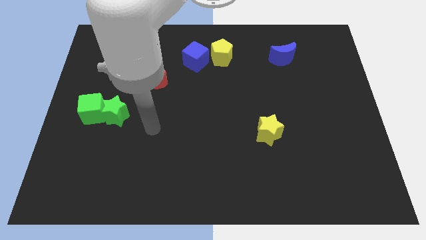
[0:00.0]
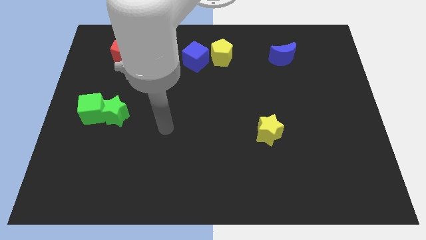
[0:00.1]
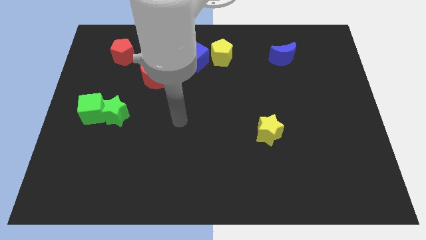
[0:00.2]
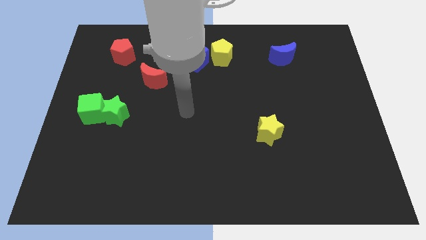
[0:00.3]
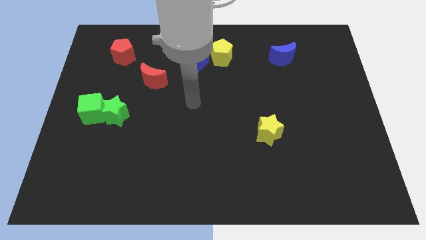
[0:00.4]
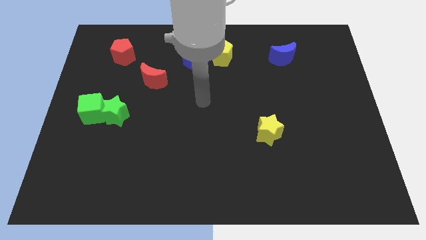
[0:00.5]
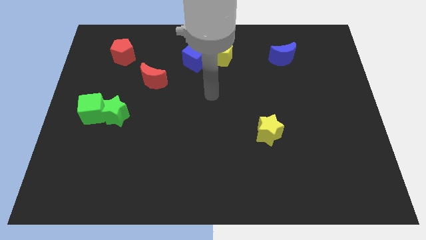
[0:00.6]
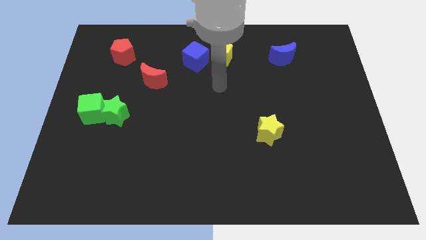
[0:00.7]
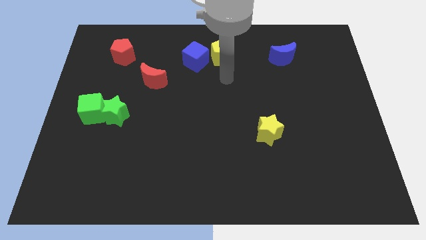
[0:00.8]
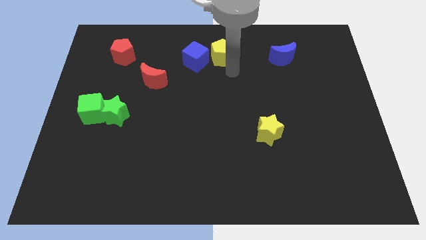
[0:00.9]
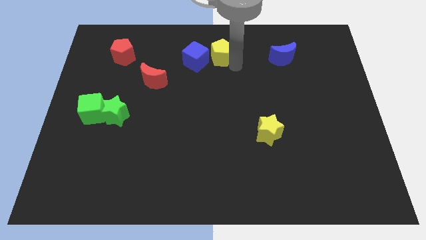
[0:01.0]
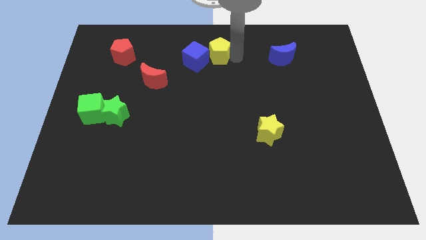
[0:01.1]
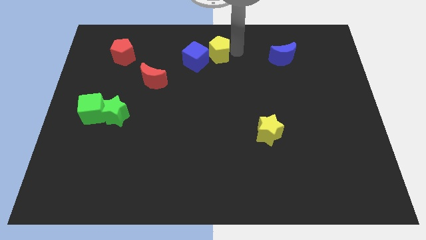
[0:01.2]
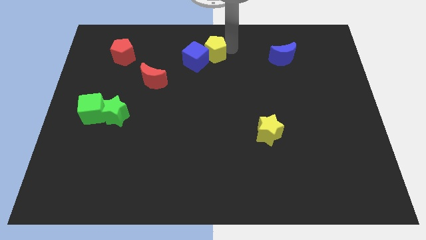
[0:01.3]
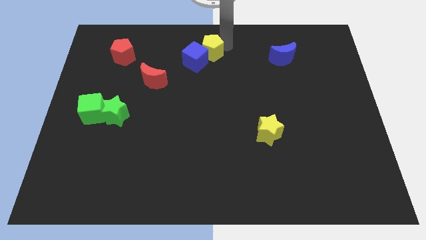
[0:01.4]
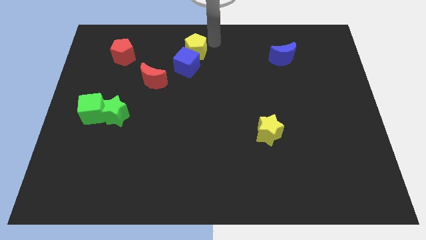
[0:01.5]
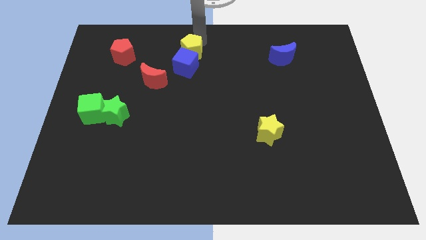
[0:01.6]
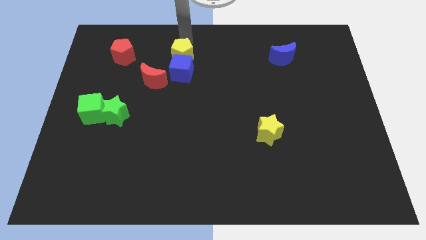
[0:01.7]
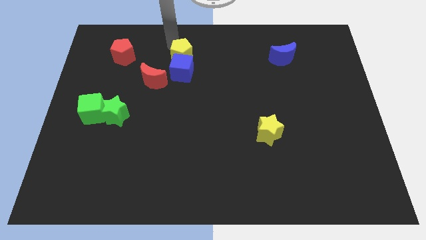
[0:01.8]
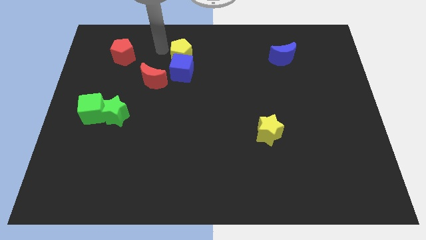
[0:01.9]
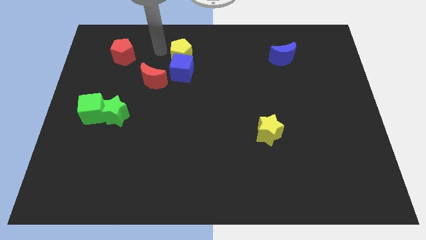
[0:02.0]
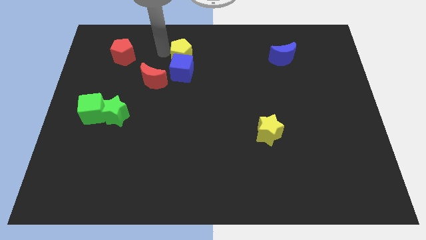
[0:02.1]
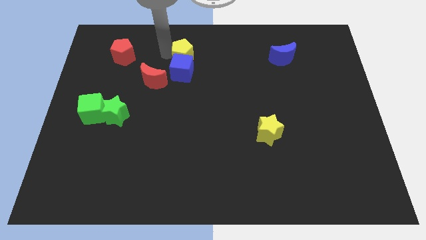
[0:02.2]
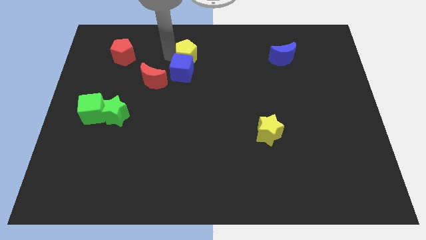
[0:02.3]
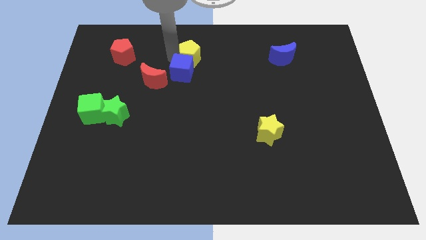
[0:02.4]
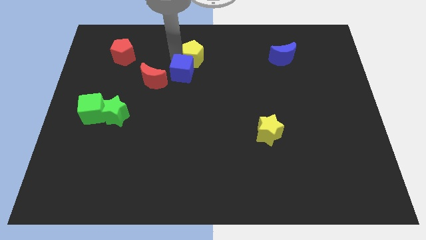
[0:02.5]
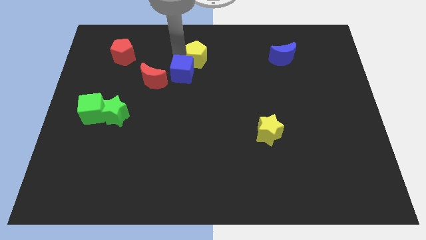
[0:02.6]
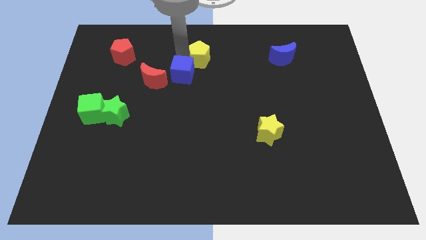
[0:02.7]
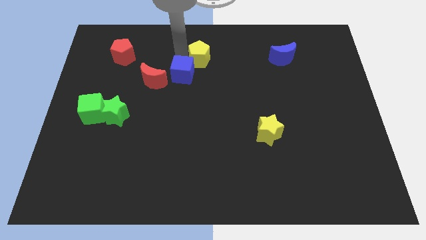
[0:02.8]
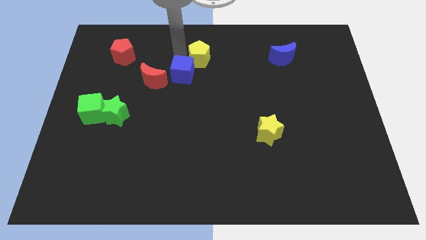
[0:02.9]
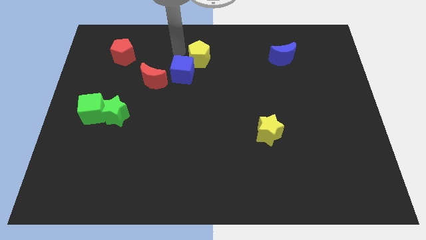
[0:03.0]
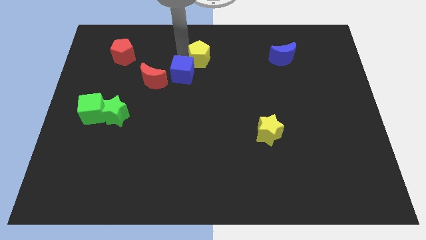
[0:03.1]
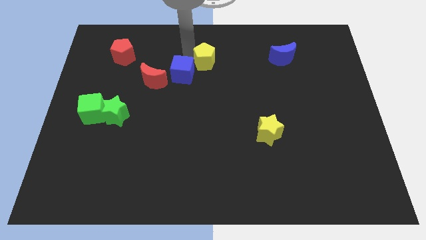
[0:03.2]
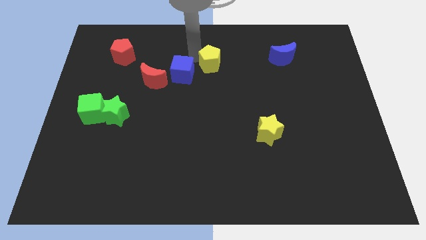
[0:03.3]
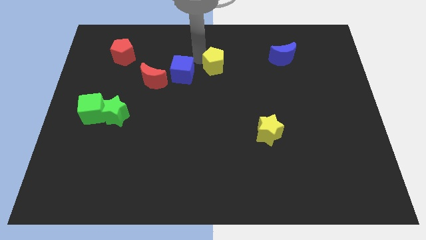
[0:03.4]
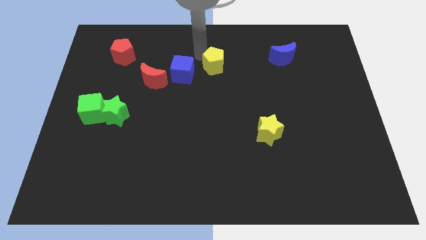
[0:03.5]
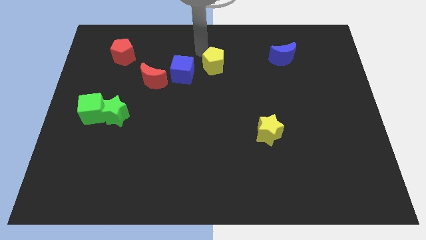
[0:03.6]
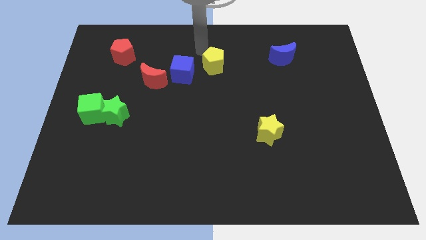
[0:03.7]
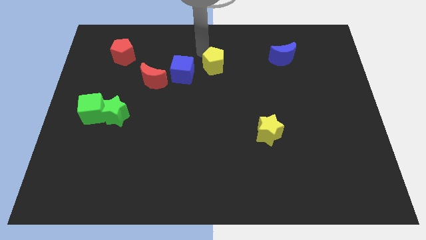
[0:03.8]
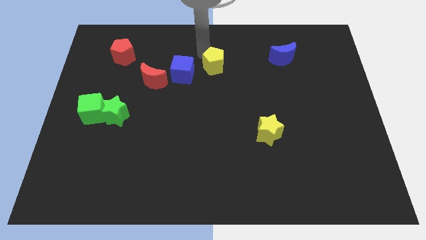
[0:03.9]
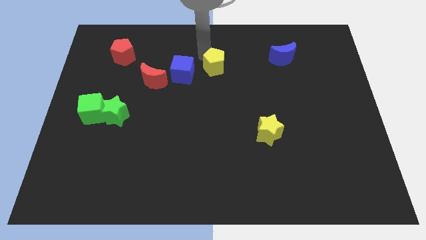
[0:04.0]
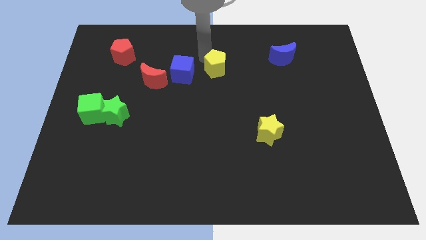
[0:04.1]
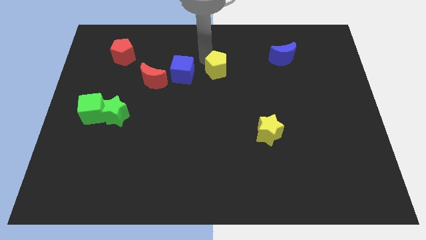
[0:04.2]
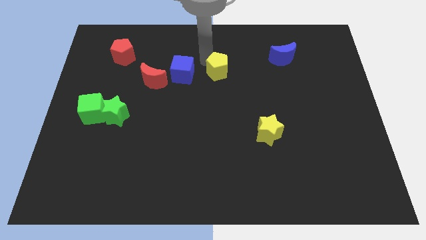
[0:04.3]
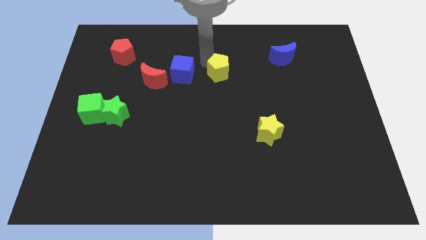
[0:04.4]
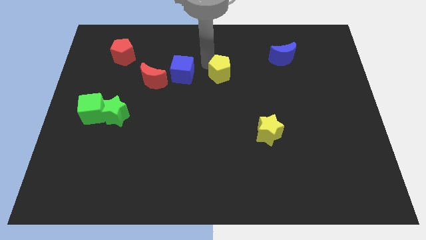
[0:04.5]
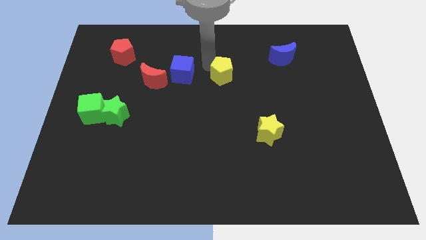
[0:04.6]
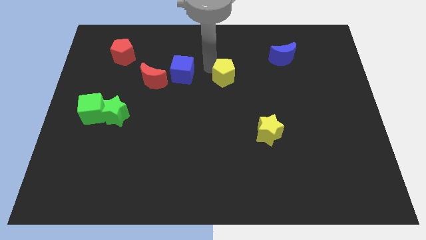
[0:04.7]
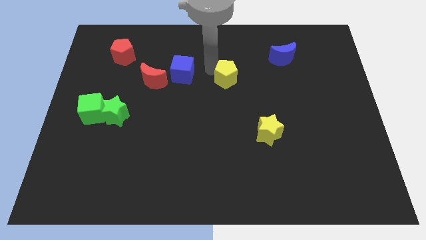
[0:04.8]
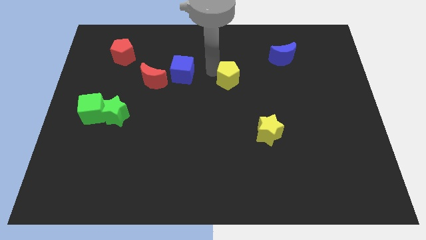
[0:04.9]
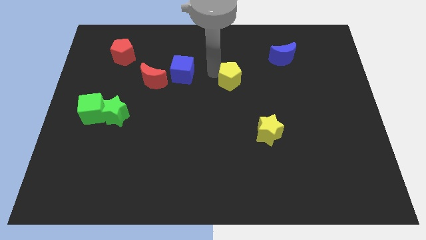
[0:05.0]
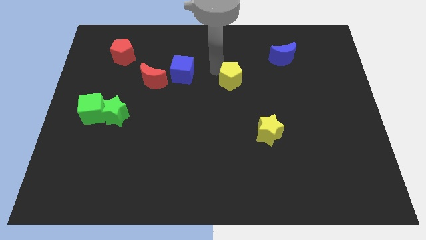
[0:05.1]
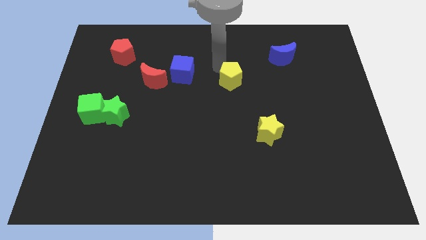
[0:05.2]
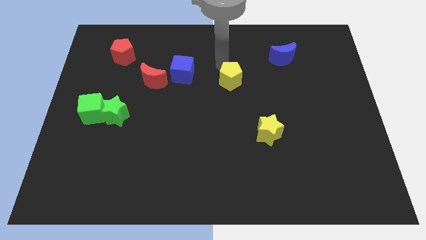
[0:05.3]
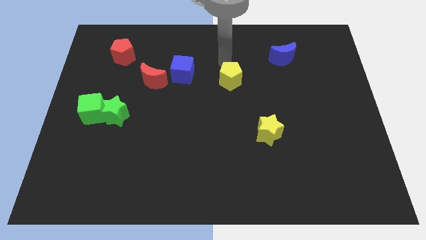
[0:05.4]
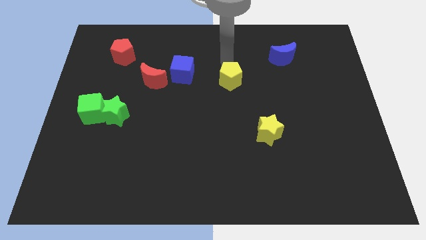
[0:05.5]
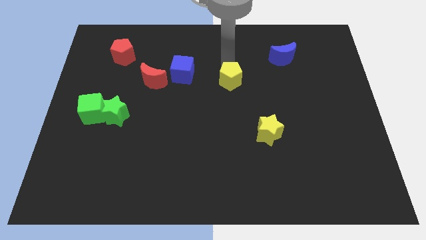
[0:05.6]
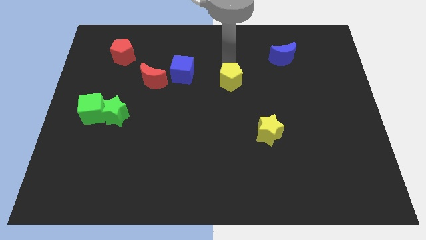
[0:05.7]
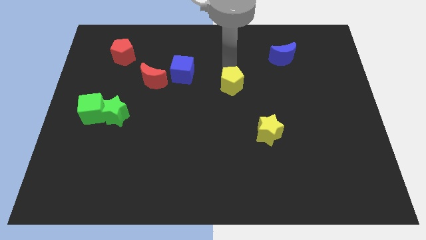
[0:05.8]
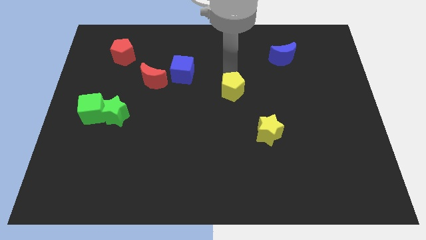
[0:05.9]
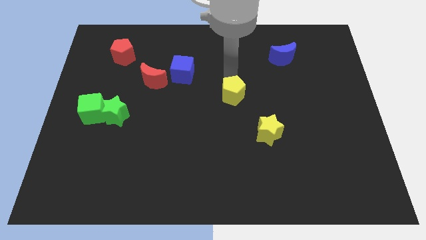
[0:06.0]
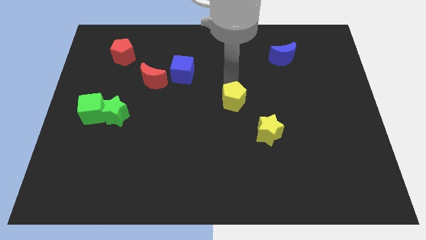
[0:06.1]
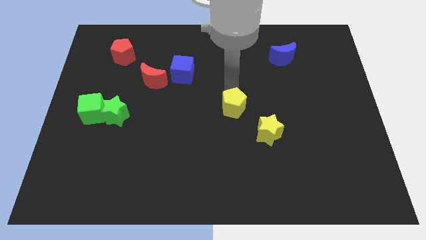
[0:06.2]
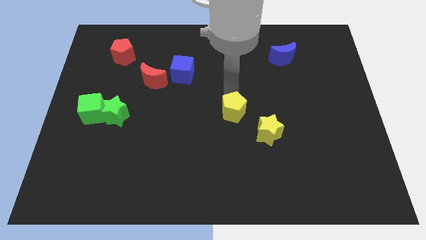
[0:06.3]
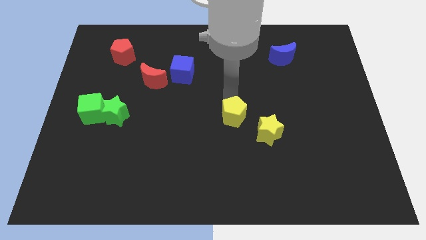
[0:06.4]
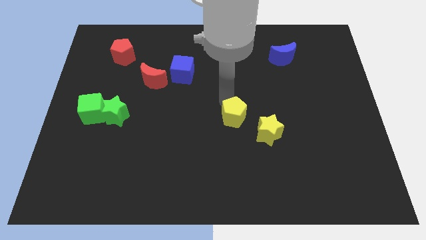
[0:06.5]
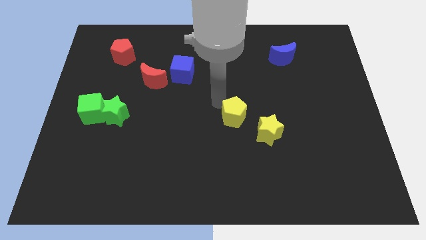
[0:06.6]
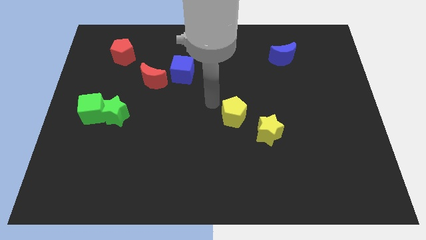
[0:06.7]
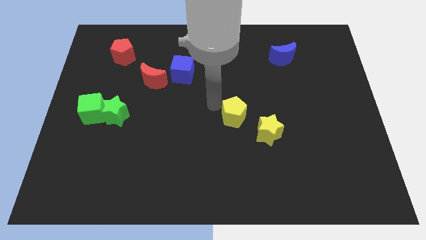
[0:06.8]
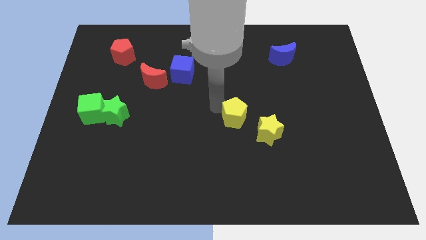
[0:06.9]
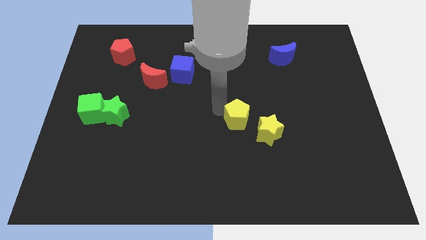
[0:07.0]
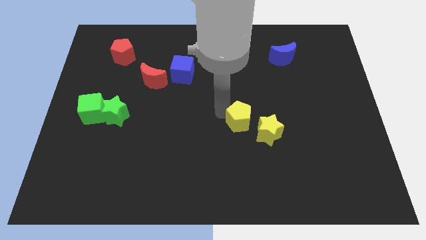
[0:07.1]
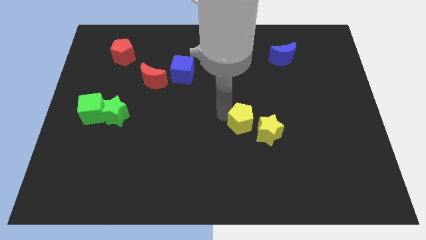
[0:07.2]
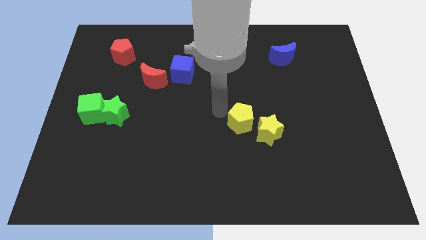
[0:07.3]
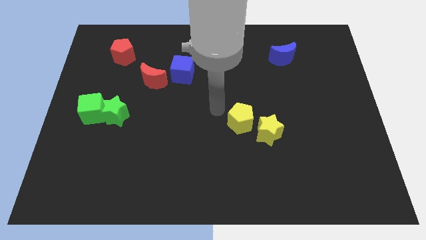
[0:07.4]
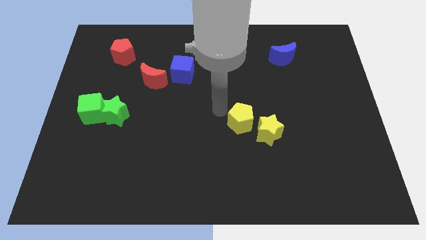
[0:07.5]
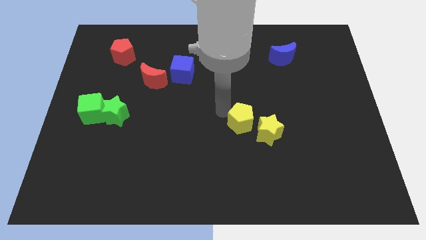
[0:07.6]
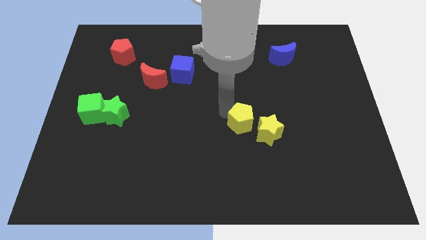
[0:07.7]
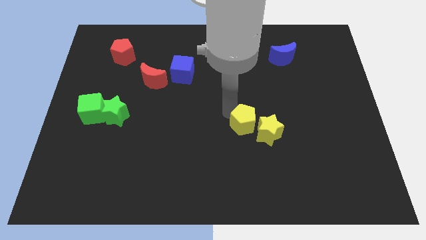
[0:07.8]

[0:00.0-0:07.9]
push the yellow pentagon towards the yellow star
